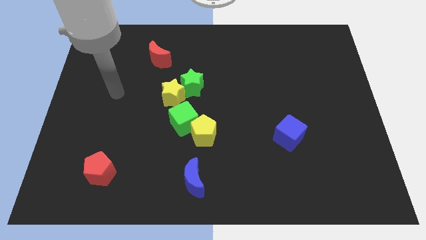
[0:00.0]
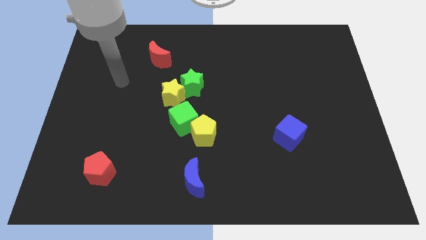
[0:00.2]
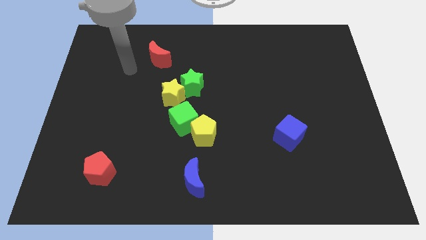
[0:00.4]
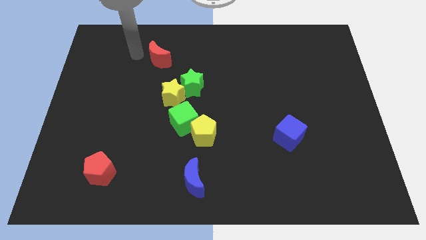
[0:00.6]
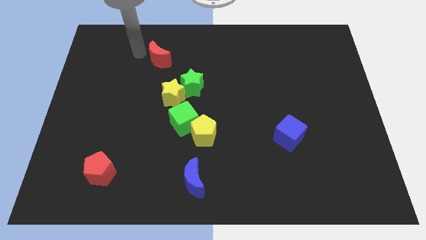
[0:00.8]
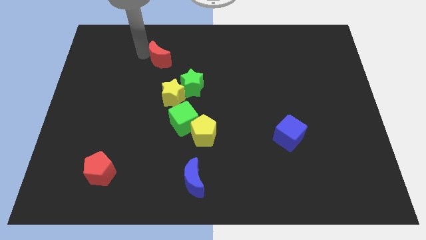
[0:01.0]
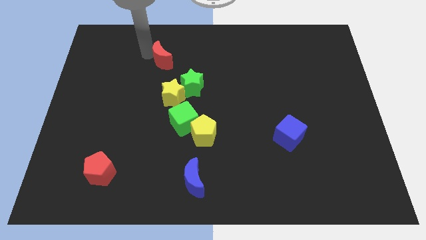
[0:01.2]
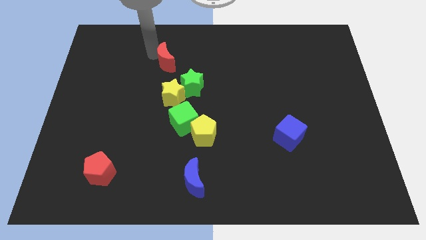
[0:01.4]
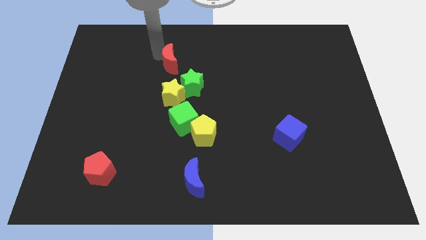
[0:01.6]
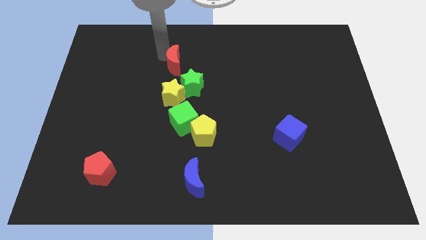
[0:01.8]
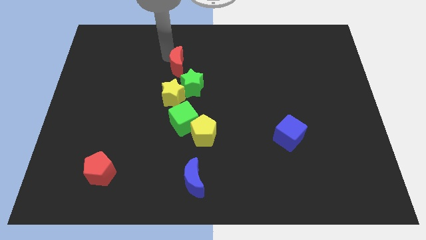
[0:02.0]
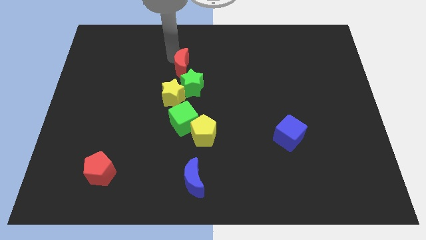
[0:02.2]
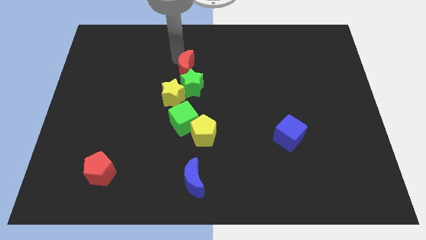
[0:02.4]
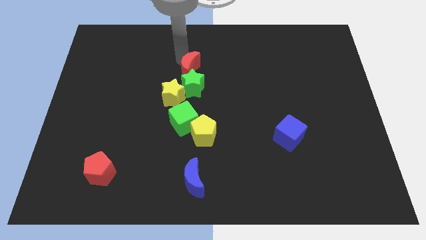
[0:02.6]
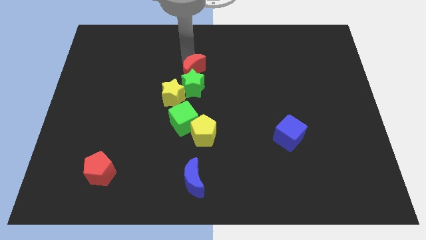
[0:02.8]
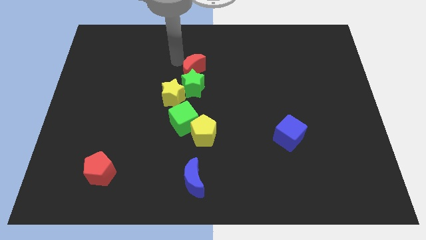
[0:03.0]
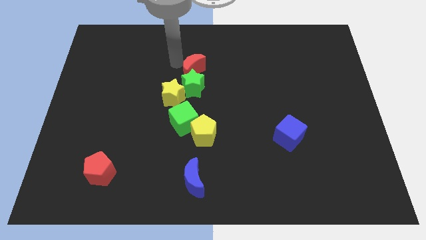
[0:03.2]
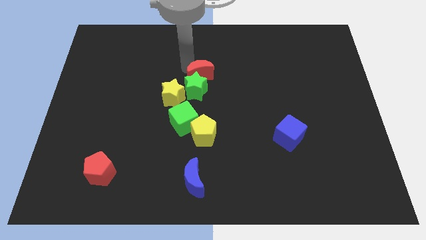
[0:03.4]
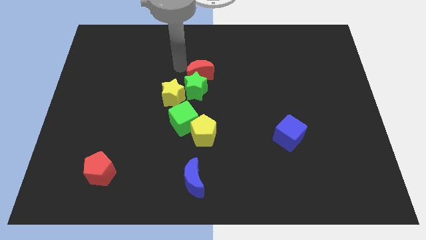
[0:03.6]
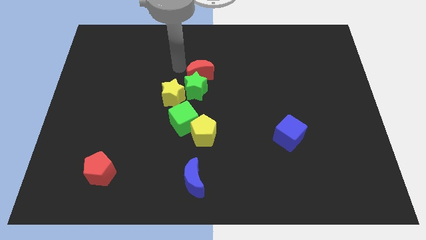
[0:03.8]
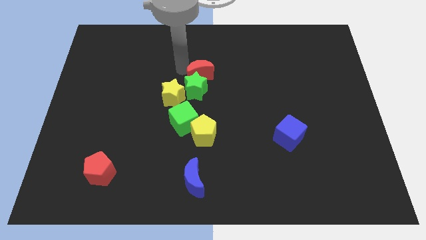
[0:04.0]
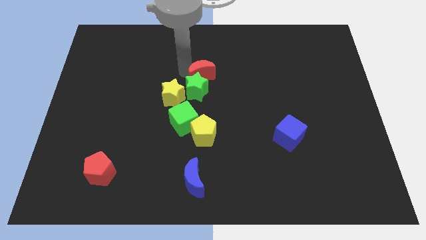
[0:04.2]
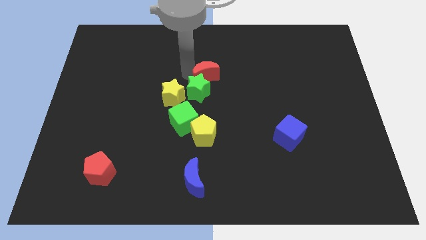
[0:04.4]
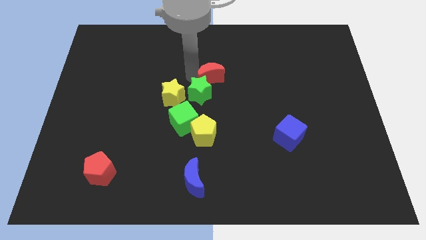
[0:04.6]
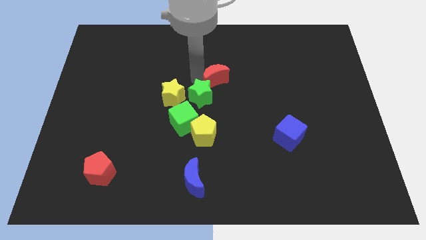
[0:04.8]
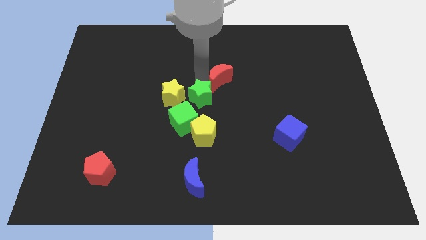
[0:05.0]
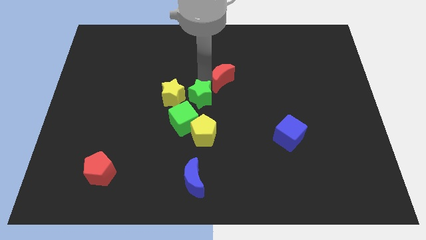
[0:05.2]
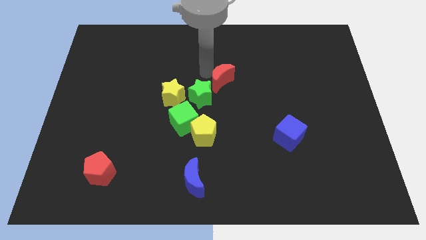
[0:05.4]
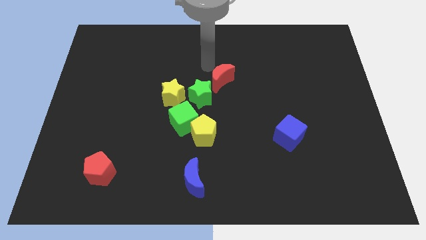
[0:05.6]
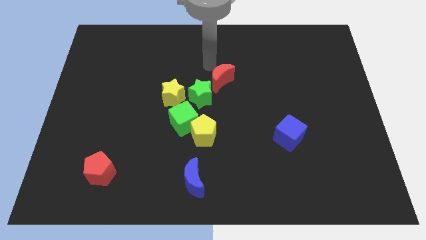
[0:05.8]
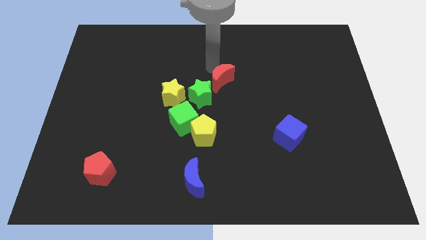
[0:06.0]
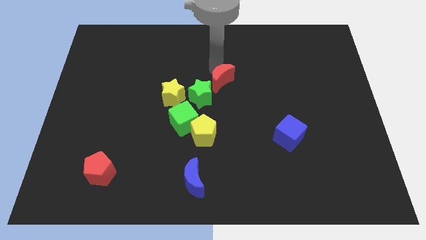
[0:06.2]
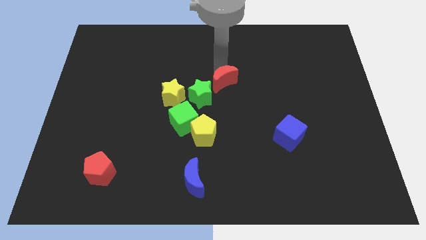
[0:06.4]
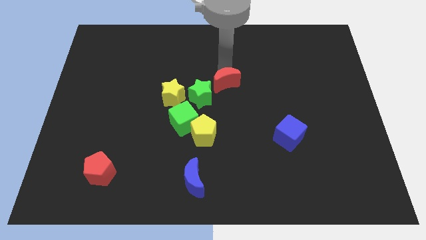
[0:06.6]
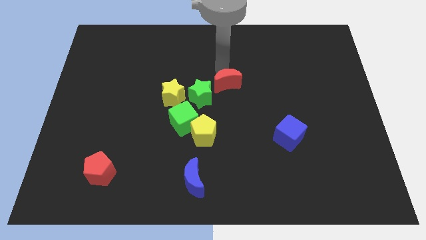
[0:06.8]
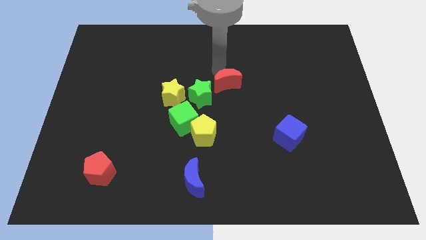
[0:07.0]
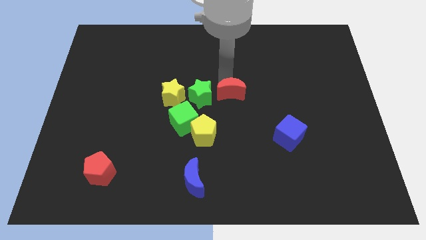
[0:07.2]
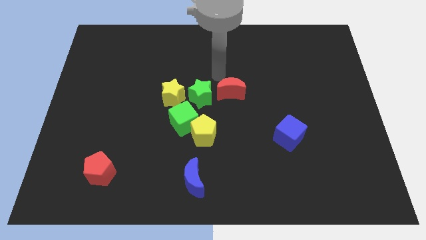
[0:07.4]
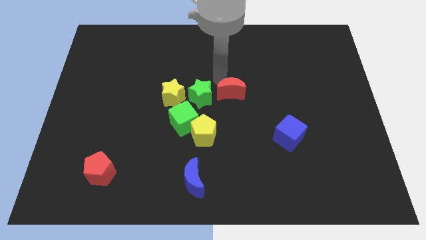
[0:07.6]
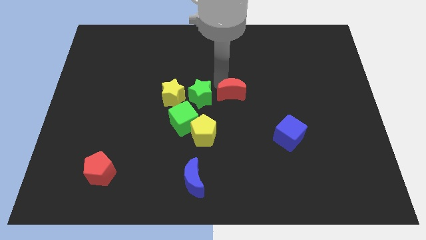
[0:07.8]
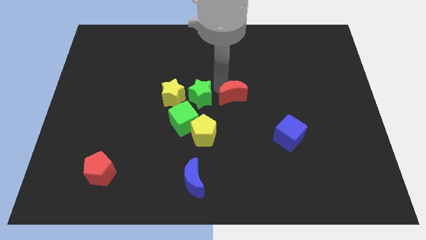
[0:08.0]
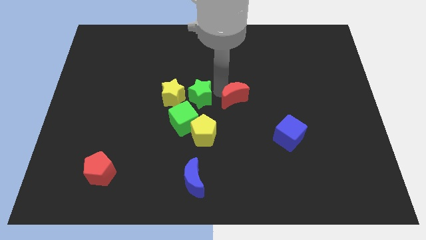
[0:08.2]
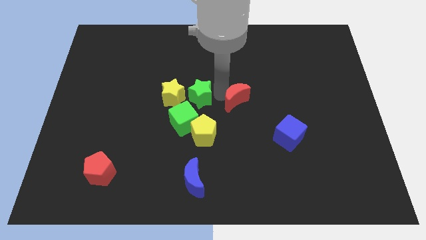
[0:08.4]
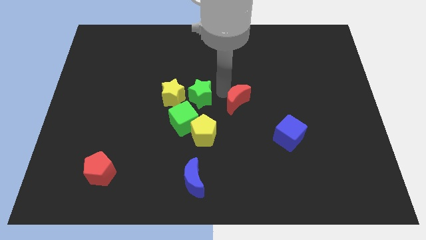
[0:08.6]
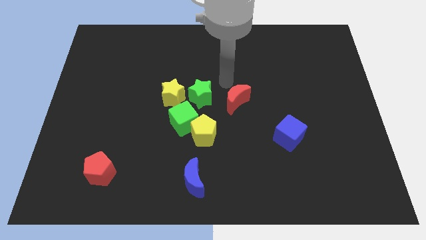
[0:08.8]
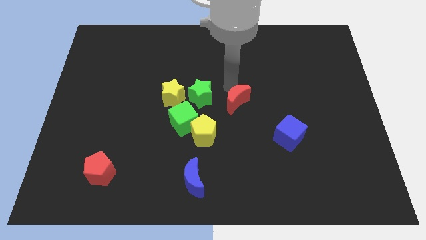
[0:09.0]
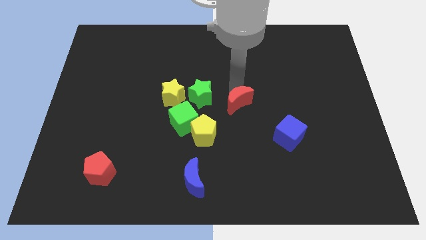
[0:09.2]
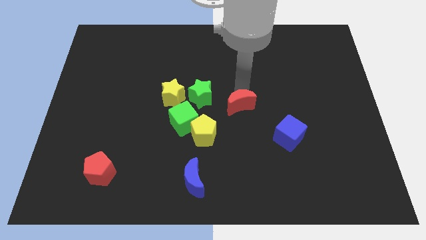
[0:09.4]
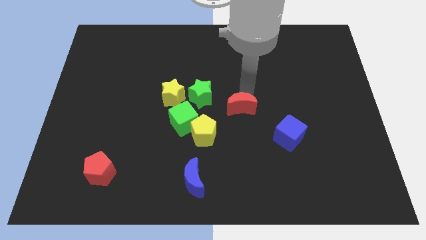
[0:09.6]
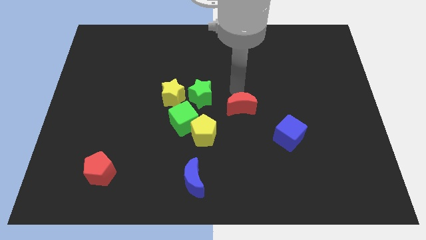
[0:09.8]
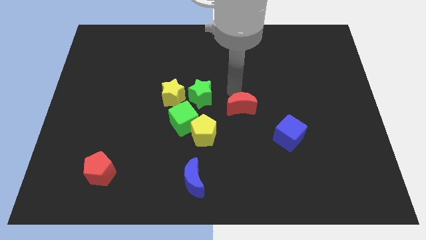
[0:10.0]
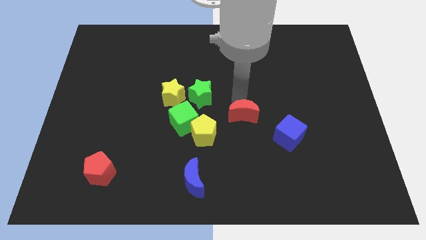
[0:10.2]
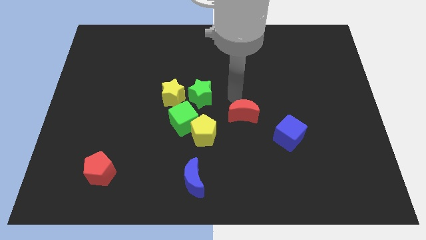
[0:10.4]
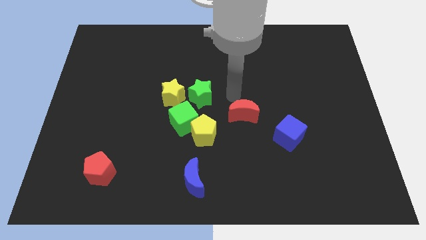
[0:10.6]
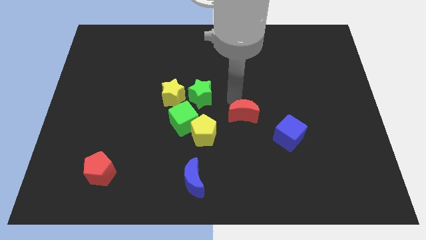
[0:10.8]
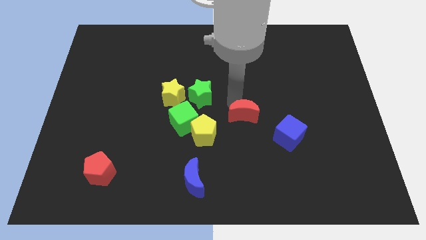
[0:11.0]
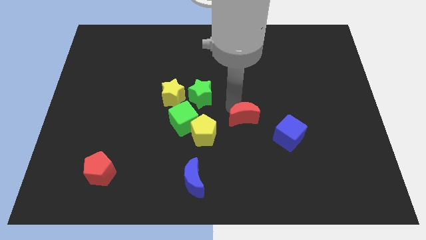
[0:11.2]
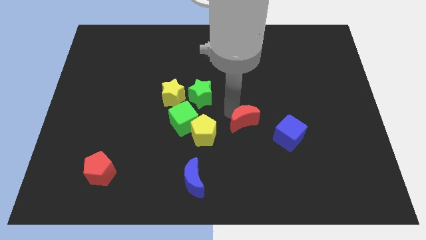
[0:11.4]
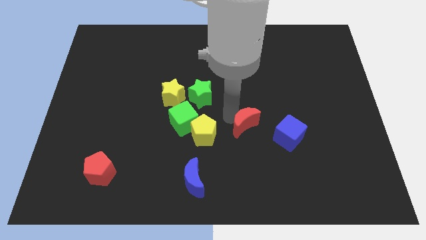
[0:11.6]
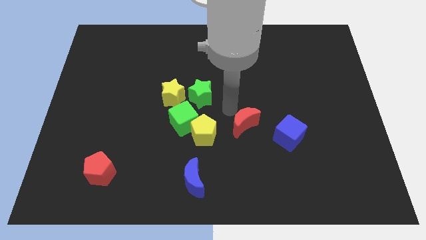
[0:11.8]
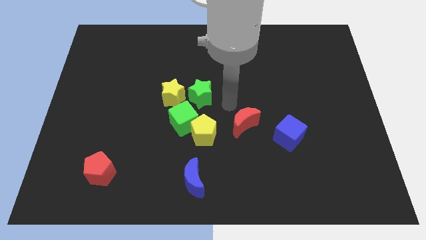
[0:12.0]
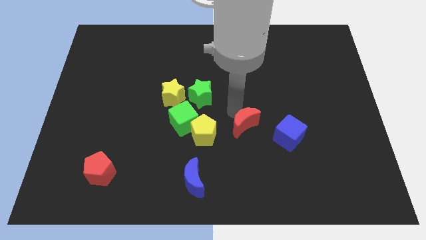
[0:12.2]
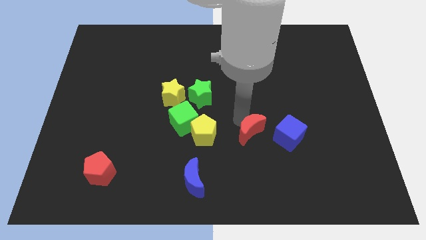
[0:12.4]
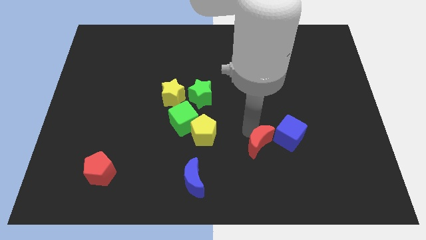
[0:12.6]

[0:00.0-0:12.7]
move the red moon diagonally down and to the left of the blue cube
